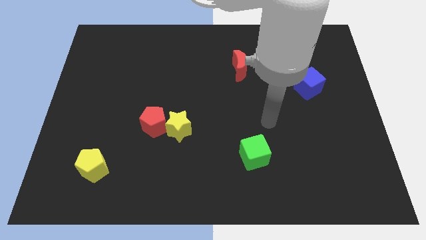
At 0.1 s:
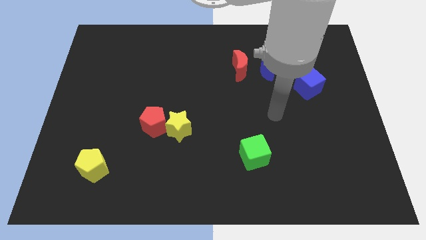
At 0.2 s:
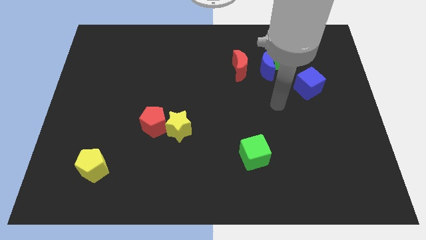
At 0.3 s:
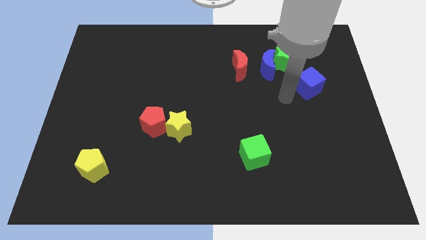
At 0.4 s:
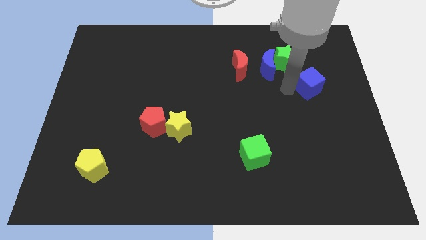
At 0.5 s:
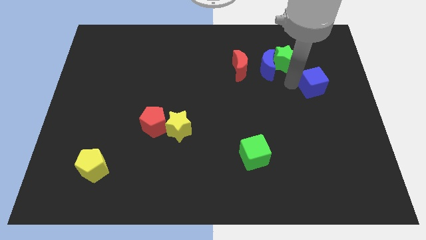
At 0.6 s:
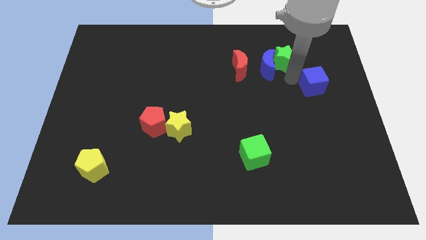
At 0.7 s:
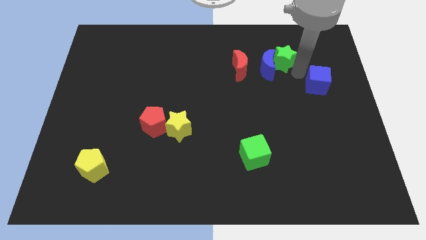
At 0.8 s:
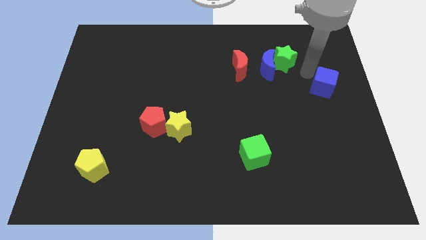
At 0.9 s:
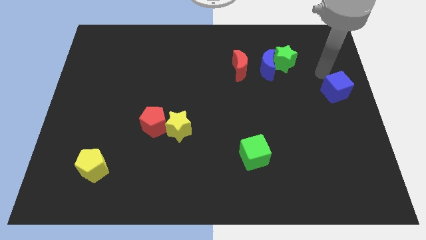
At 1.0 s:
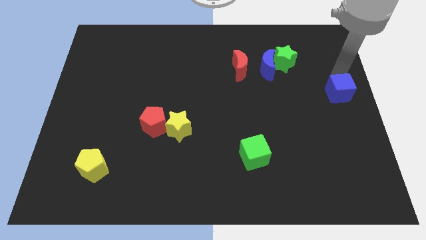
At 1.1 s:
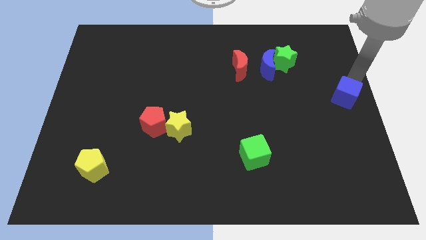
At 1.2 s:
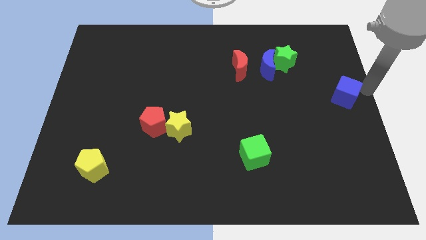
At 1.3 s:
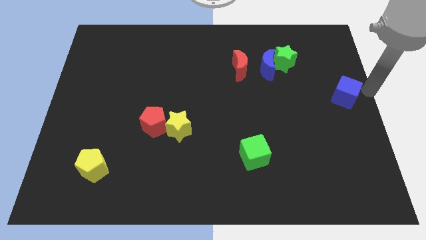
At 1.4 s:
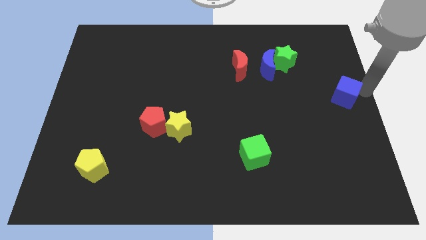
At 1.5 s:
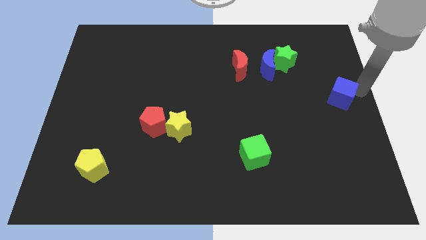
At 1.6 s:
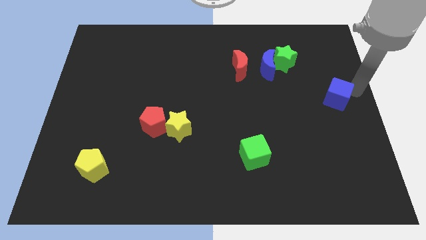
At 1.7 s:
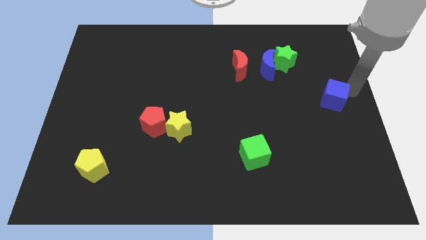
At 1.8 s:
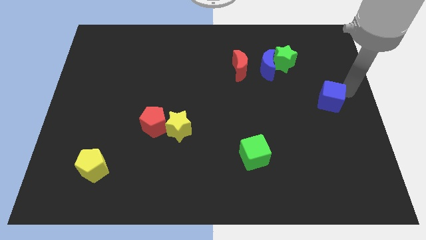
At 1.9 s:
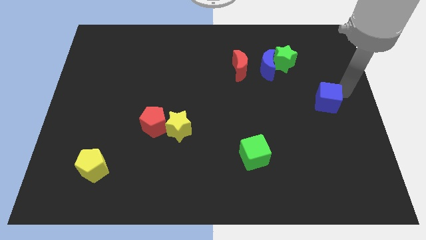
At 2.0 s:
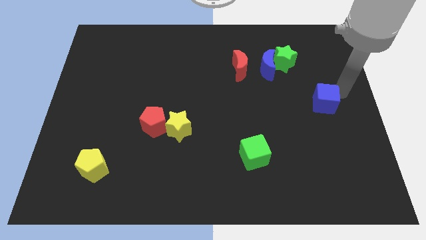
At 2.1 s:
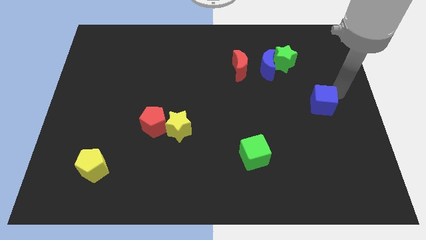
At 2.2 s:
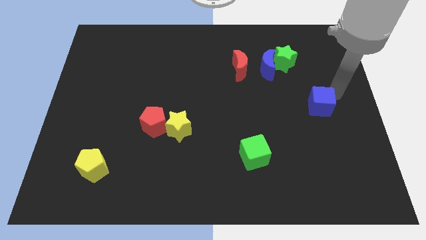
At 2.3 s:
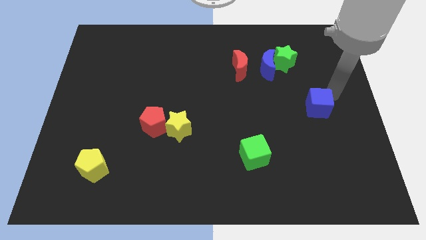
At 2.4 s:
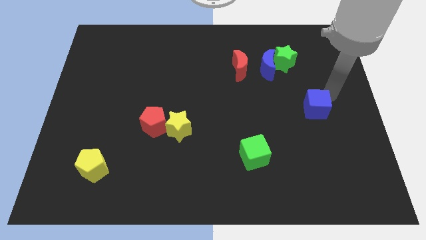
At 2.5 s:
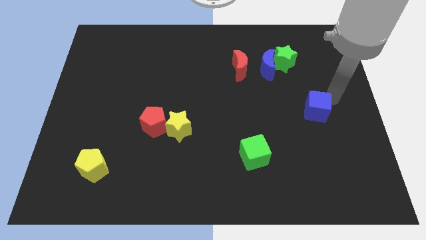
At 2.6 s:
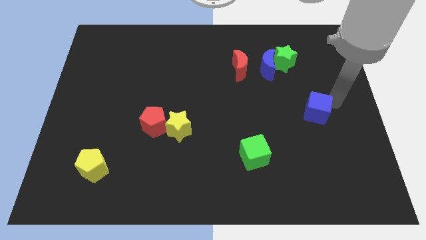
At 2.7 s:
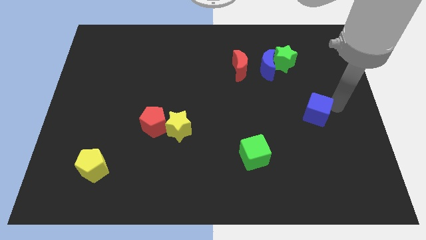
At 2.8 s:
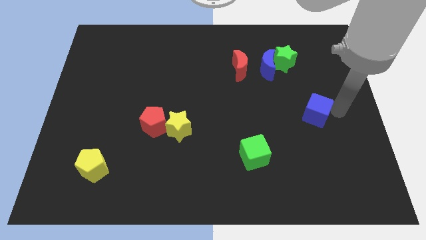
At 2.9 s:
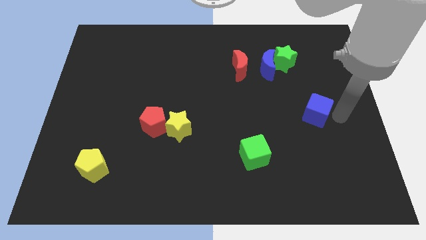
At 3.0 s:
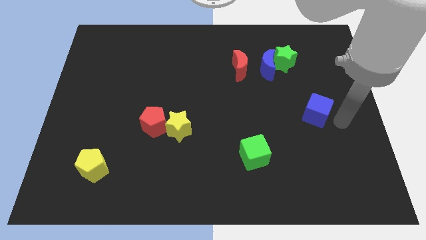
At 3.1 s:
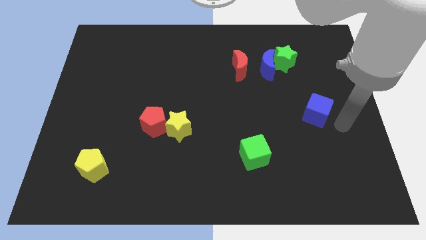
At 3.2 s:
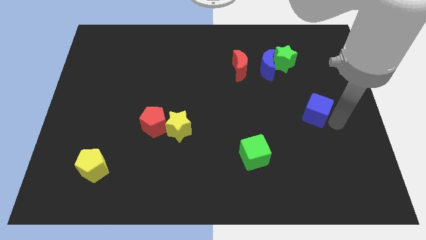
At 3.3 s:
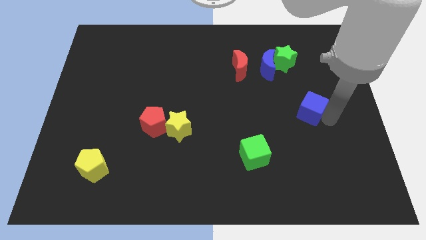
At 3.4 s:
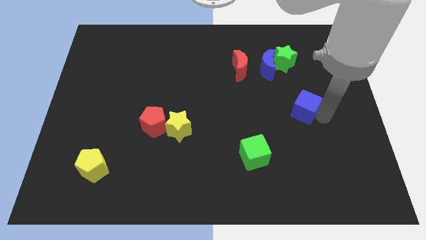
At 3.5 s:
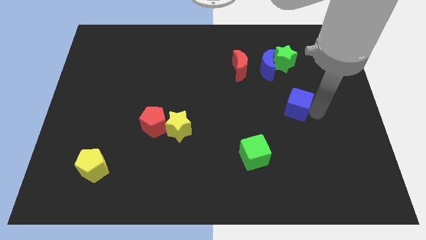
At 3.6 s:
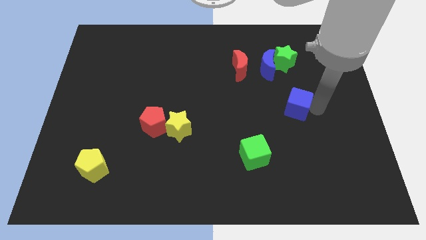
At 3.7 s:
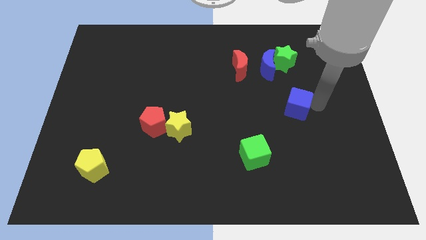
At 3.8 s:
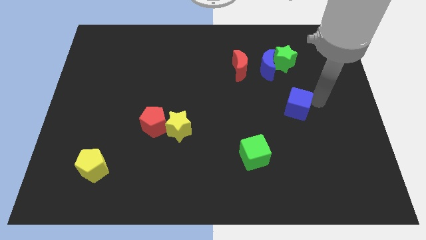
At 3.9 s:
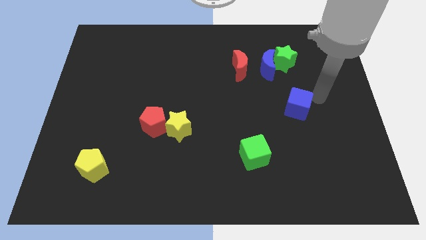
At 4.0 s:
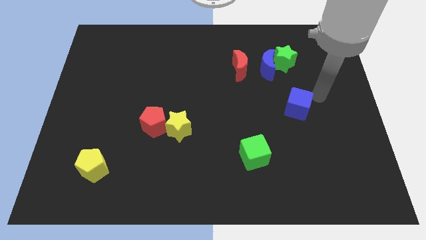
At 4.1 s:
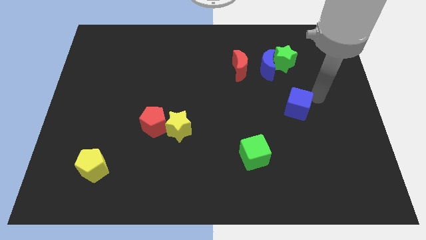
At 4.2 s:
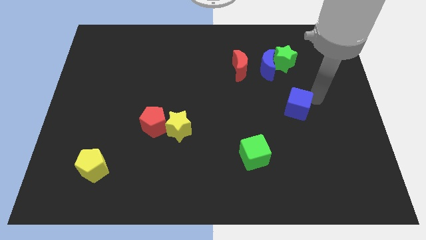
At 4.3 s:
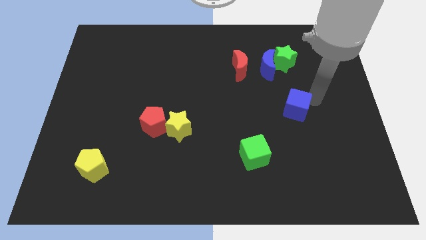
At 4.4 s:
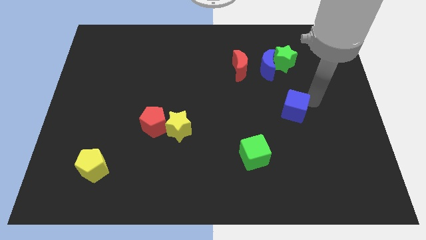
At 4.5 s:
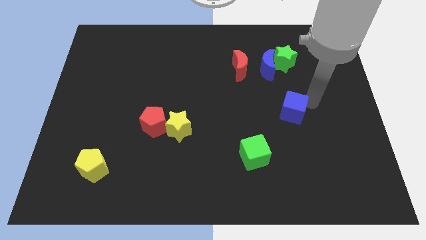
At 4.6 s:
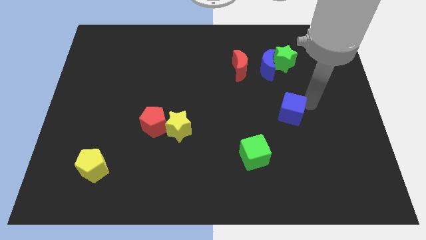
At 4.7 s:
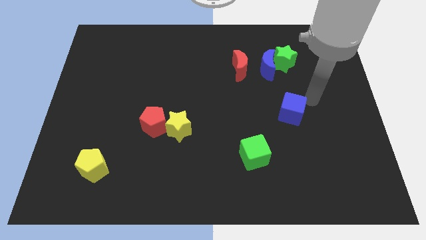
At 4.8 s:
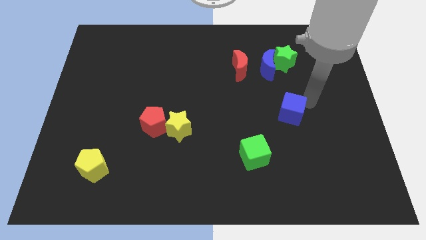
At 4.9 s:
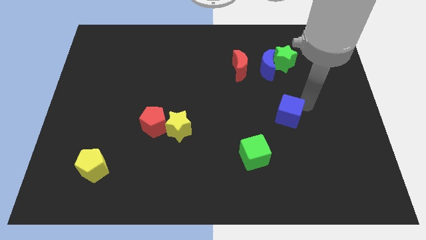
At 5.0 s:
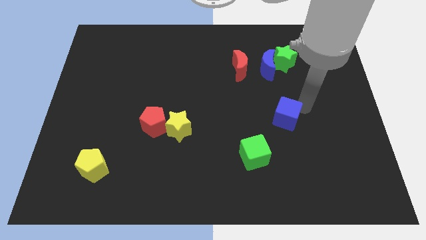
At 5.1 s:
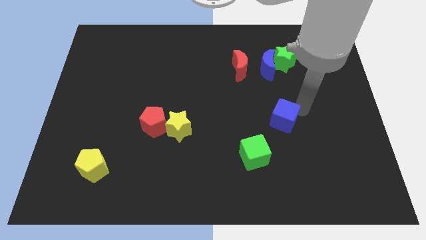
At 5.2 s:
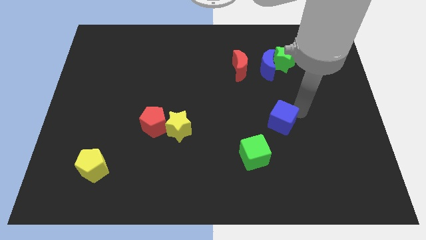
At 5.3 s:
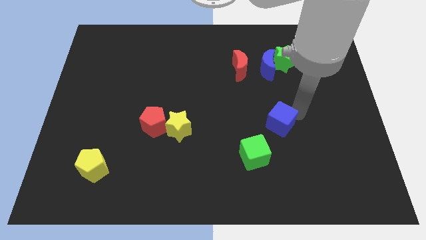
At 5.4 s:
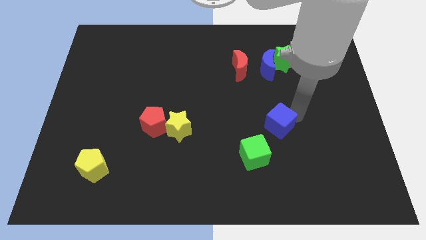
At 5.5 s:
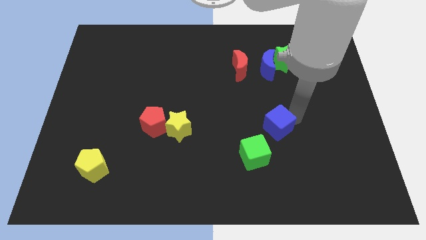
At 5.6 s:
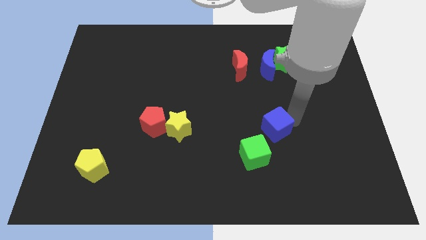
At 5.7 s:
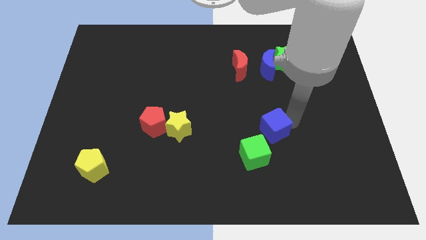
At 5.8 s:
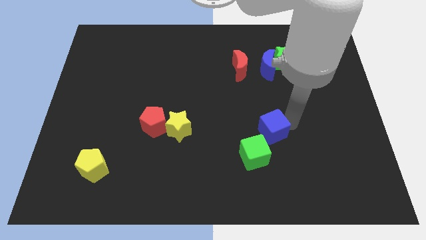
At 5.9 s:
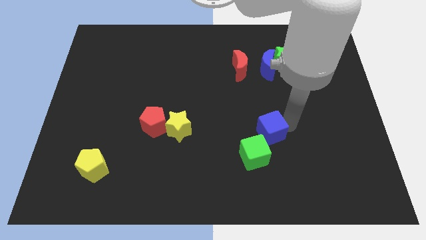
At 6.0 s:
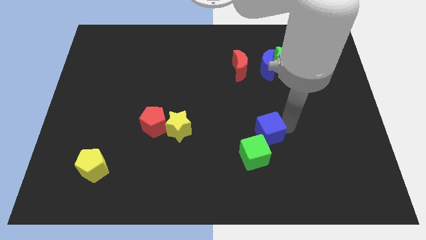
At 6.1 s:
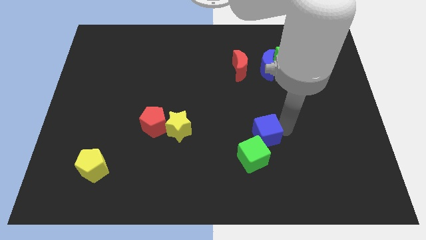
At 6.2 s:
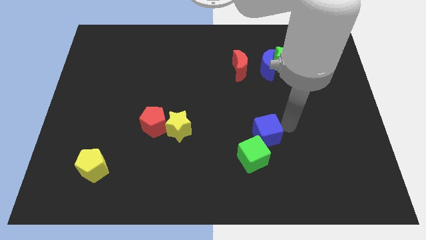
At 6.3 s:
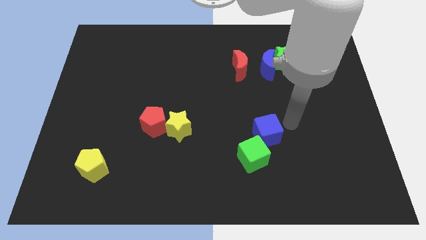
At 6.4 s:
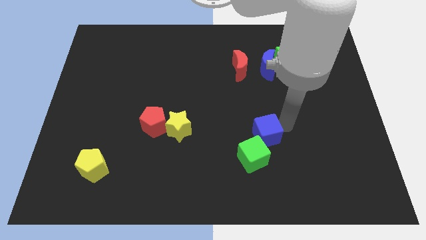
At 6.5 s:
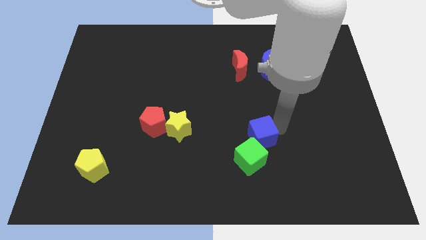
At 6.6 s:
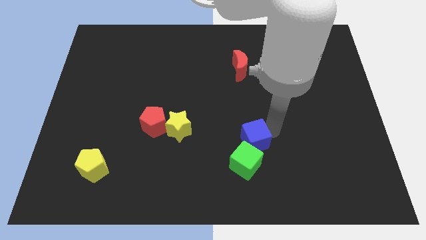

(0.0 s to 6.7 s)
move the blue cube downwards and to the left

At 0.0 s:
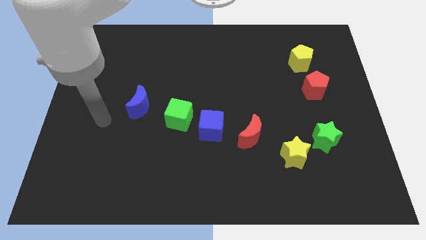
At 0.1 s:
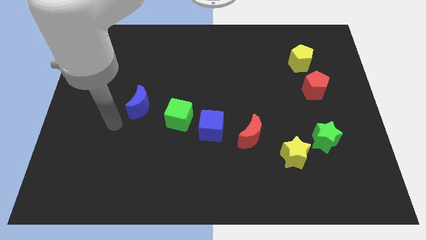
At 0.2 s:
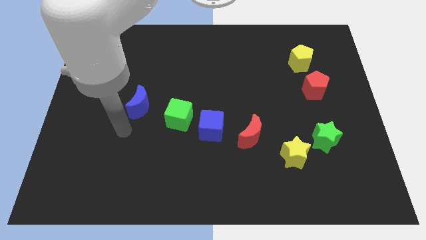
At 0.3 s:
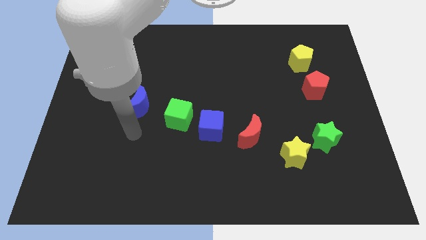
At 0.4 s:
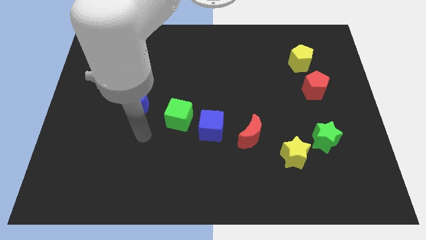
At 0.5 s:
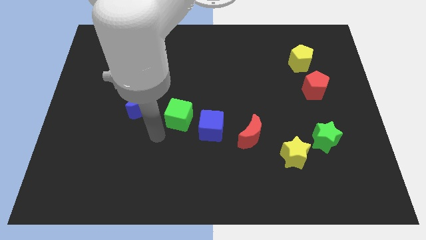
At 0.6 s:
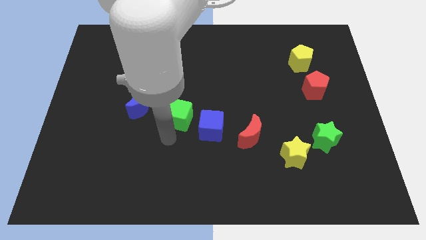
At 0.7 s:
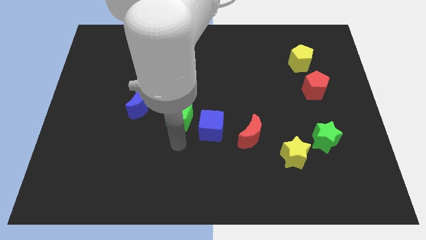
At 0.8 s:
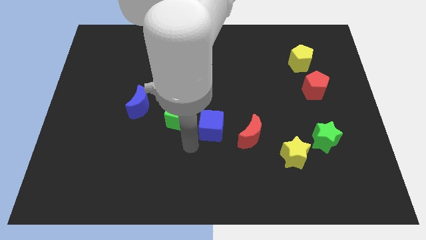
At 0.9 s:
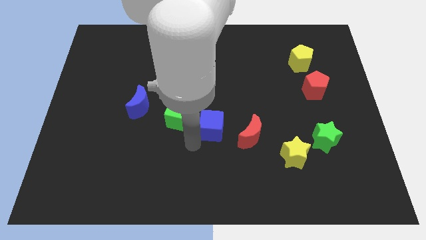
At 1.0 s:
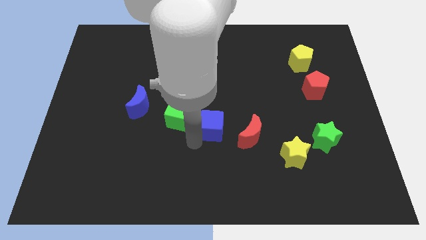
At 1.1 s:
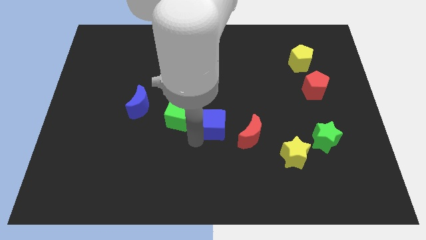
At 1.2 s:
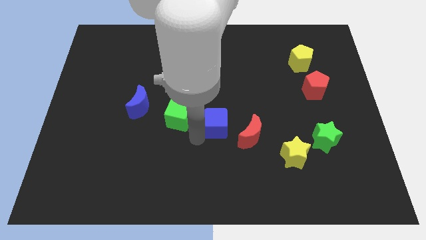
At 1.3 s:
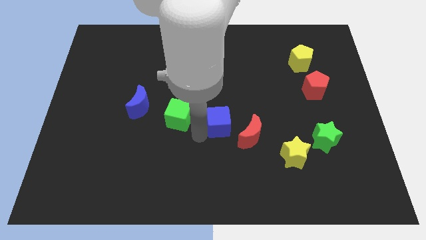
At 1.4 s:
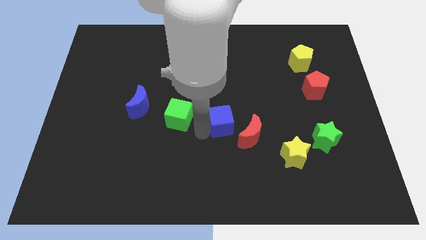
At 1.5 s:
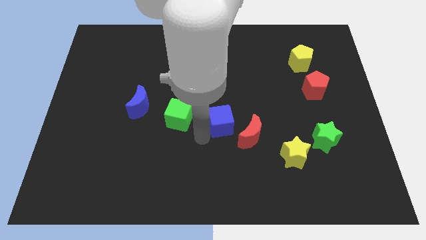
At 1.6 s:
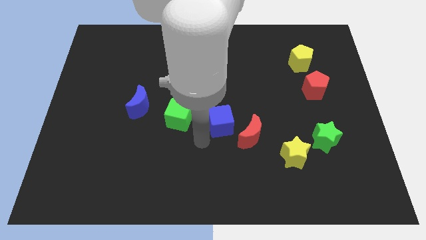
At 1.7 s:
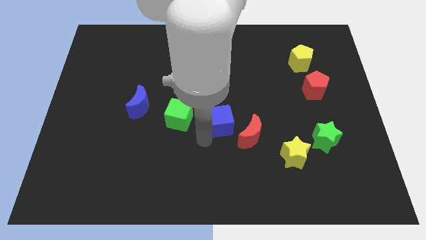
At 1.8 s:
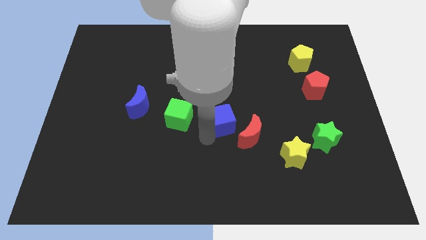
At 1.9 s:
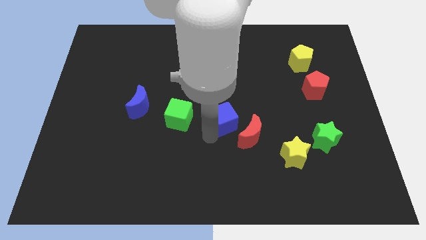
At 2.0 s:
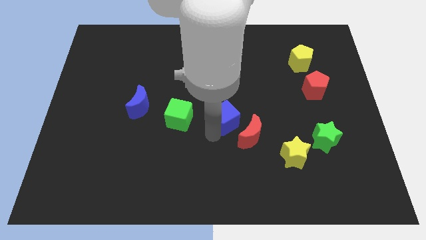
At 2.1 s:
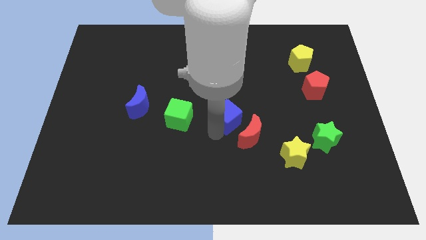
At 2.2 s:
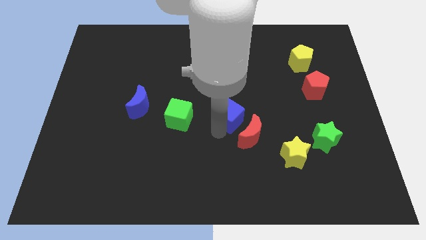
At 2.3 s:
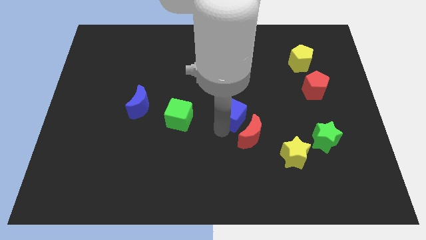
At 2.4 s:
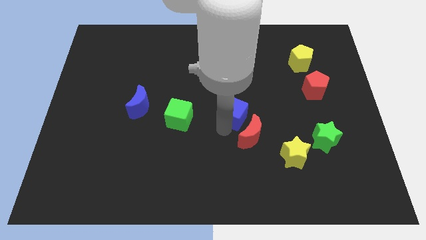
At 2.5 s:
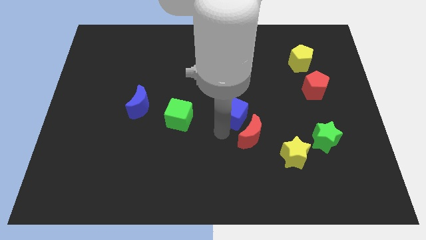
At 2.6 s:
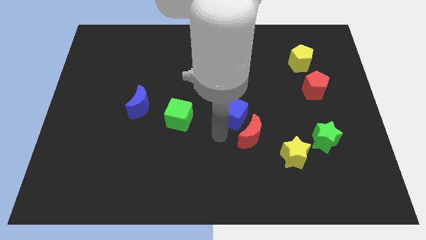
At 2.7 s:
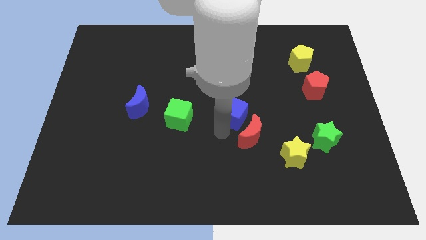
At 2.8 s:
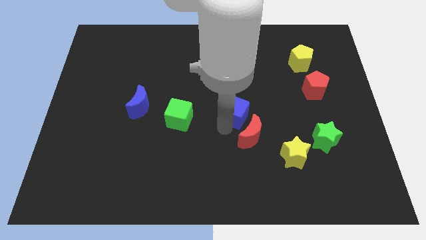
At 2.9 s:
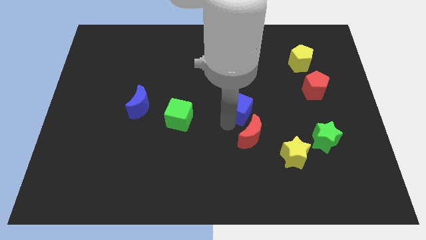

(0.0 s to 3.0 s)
push the blue cube somewhat up and then right
